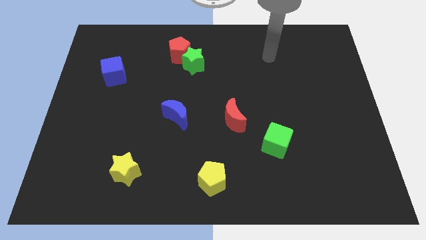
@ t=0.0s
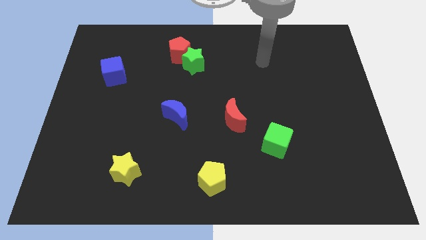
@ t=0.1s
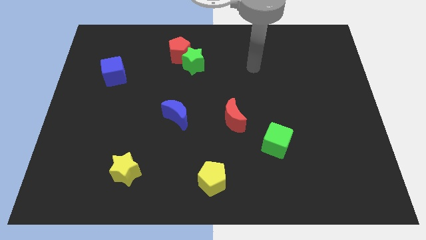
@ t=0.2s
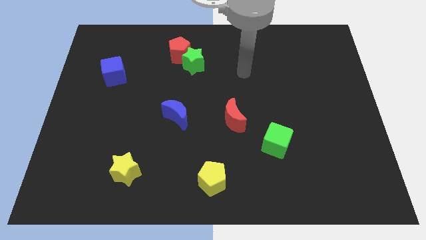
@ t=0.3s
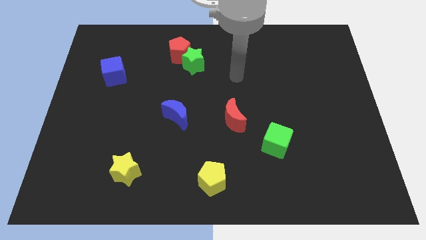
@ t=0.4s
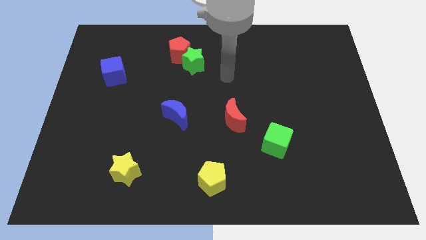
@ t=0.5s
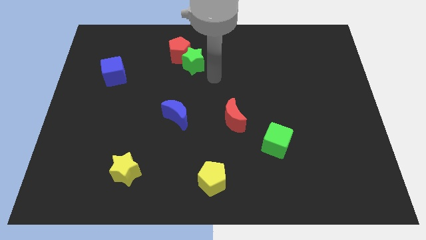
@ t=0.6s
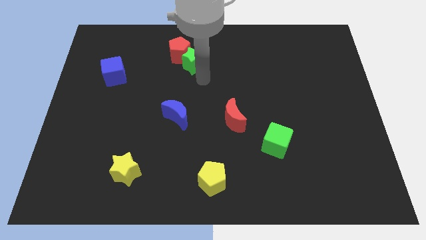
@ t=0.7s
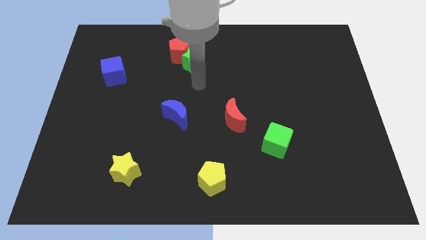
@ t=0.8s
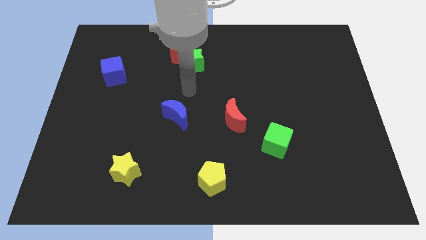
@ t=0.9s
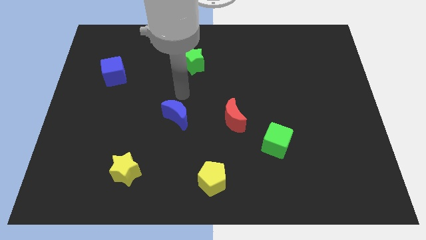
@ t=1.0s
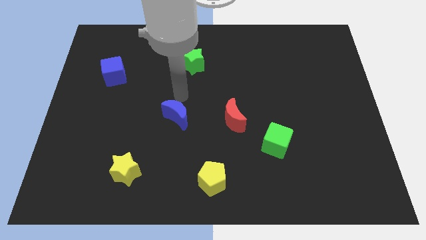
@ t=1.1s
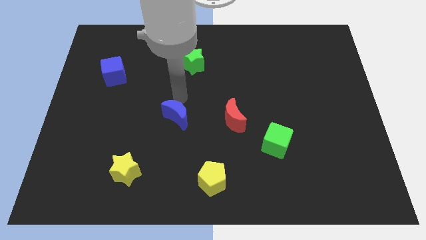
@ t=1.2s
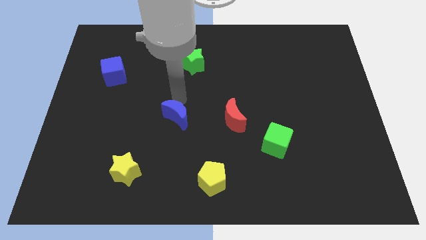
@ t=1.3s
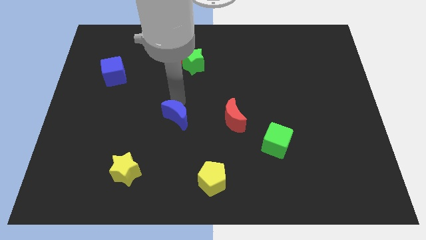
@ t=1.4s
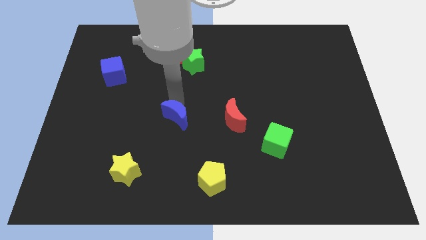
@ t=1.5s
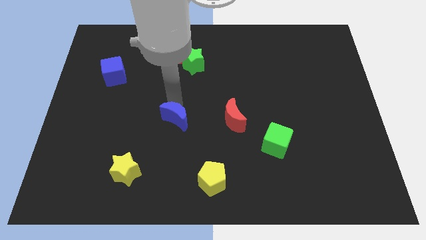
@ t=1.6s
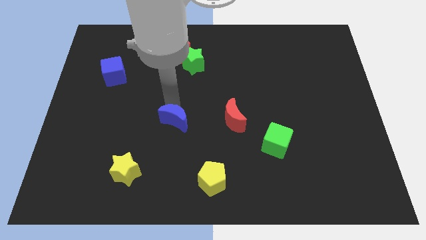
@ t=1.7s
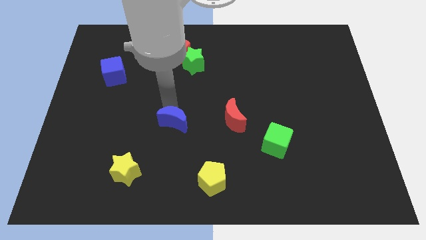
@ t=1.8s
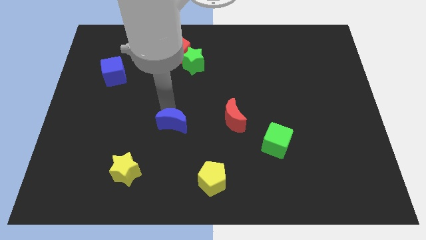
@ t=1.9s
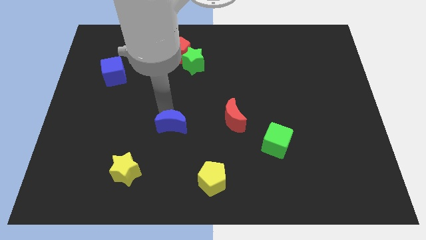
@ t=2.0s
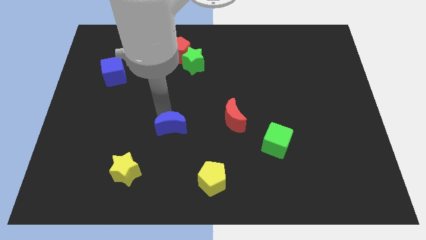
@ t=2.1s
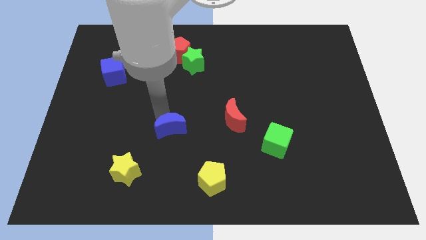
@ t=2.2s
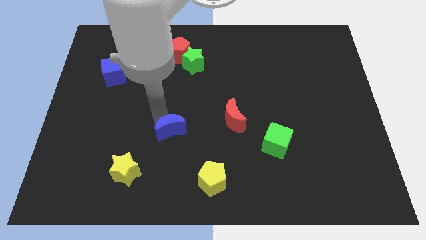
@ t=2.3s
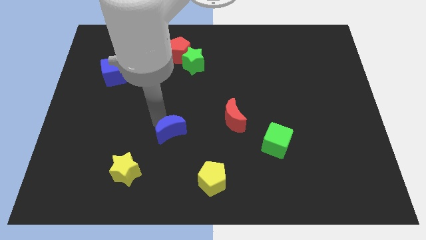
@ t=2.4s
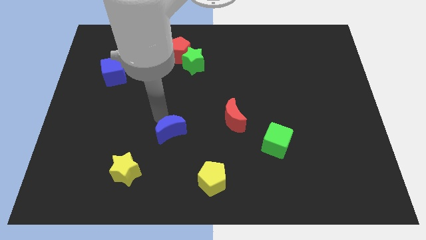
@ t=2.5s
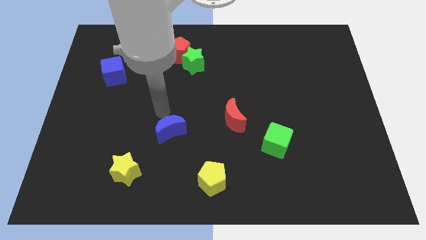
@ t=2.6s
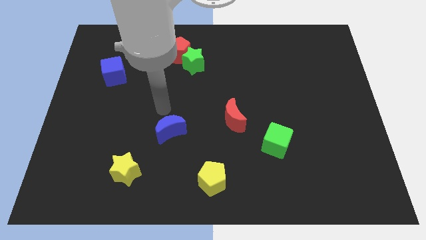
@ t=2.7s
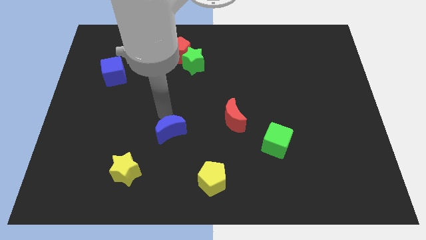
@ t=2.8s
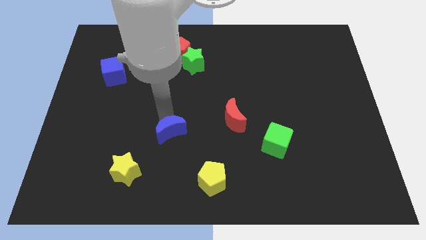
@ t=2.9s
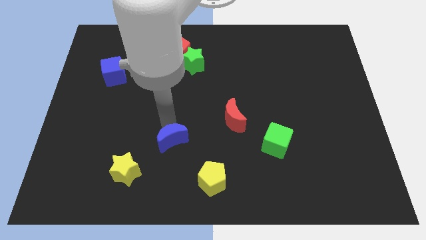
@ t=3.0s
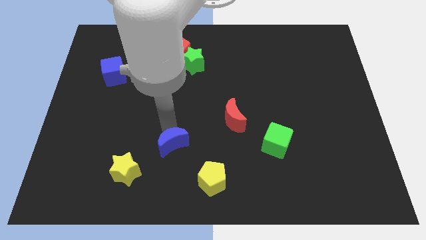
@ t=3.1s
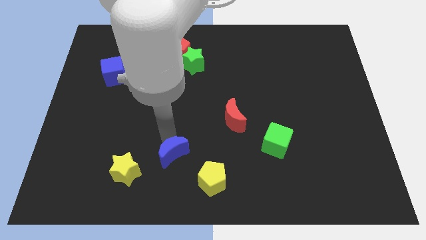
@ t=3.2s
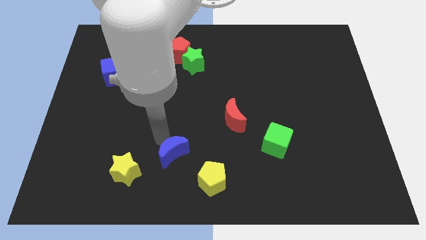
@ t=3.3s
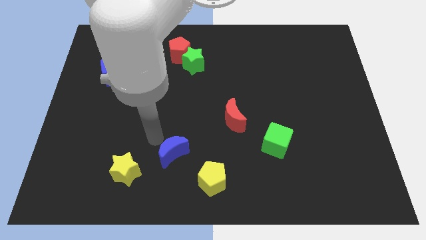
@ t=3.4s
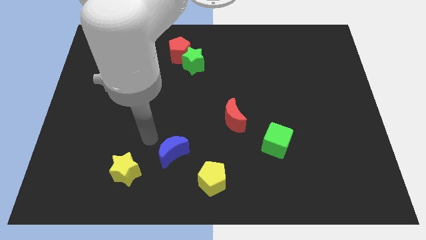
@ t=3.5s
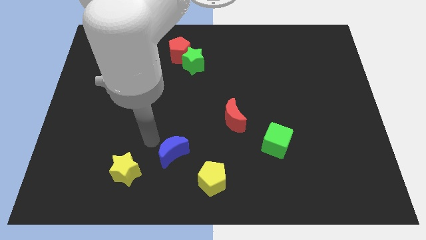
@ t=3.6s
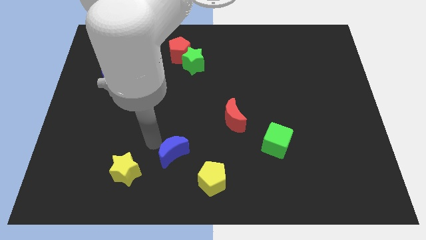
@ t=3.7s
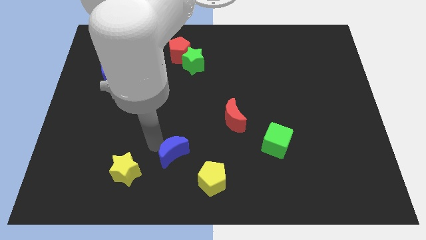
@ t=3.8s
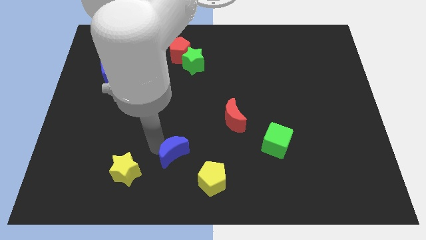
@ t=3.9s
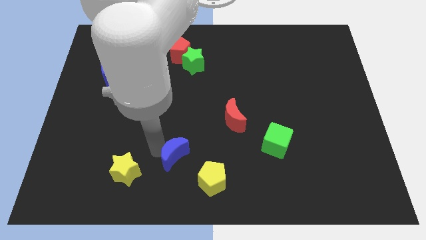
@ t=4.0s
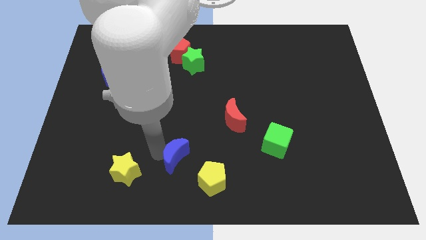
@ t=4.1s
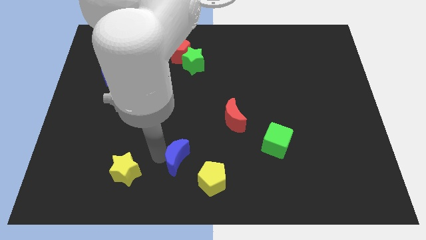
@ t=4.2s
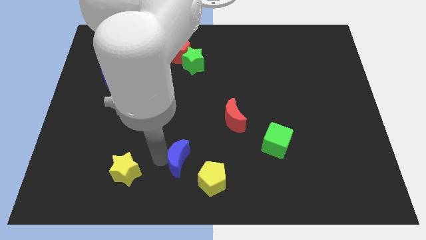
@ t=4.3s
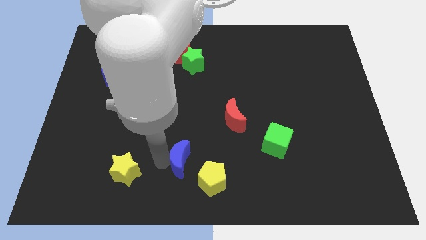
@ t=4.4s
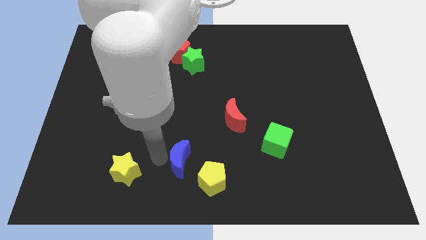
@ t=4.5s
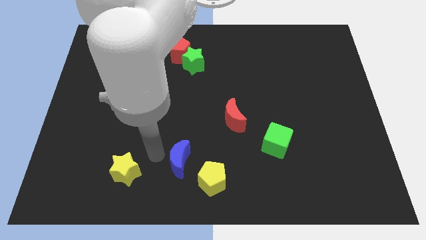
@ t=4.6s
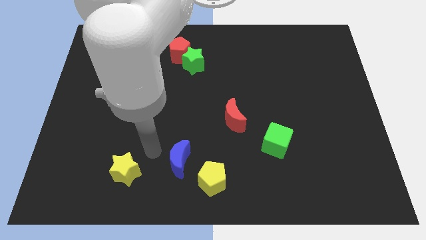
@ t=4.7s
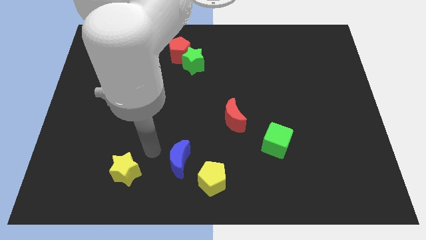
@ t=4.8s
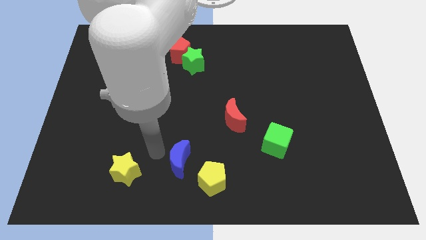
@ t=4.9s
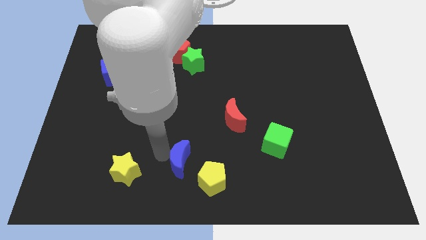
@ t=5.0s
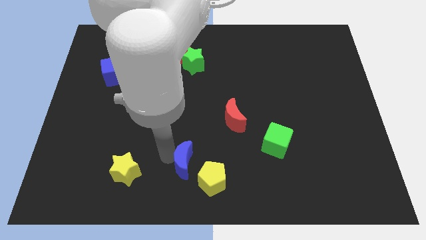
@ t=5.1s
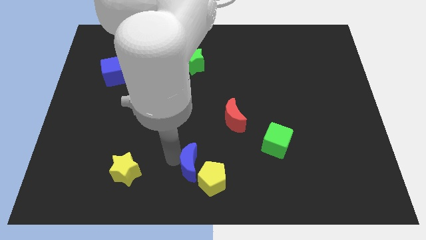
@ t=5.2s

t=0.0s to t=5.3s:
slide the blue moon to the yellow pentagon

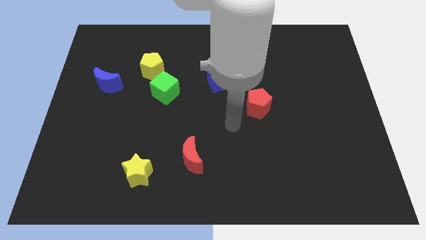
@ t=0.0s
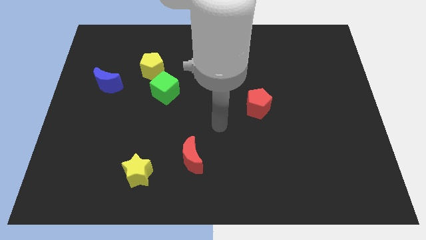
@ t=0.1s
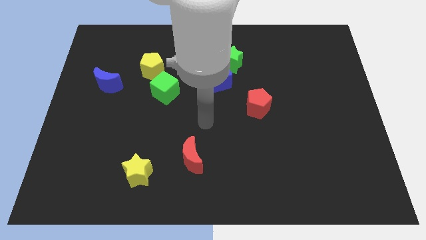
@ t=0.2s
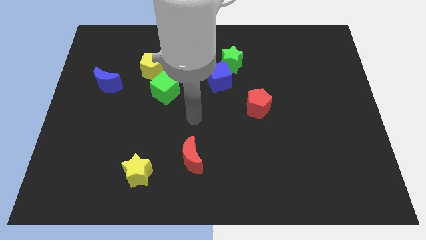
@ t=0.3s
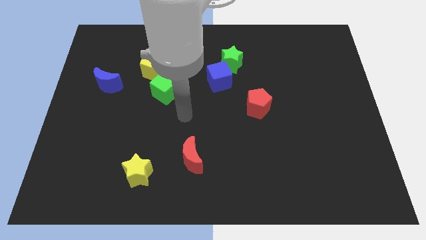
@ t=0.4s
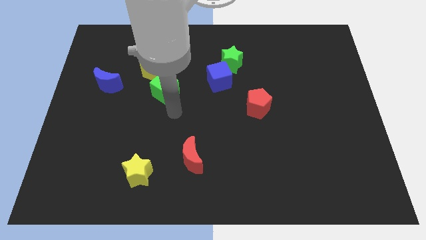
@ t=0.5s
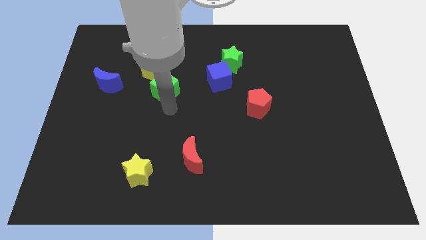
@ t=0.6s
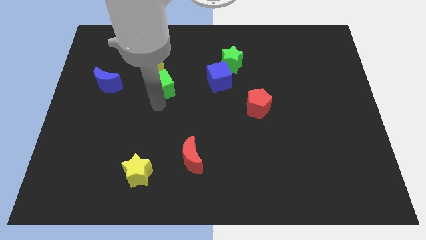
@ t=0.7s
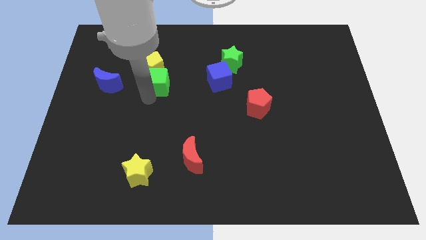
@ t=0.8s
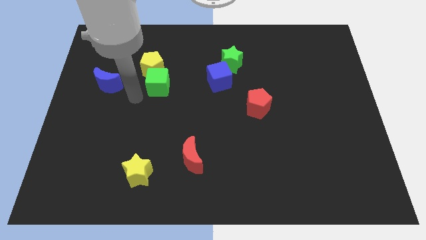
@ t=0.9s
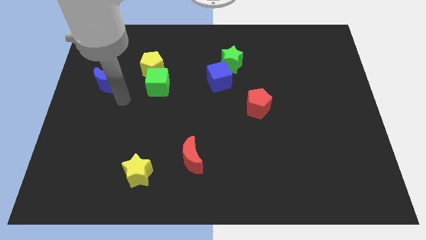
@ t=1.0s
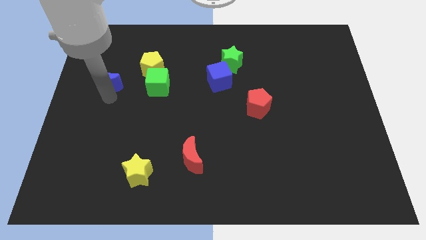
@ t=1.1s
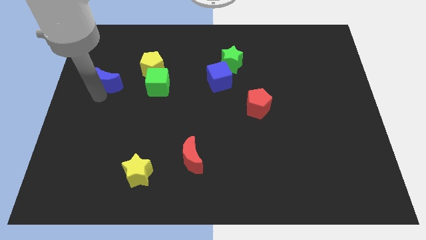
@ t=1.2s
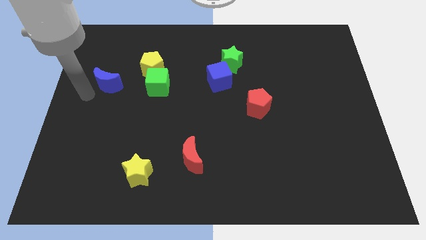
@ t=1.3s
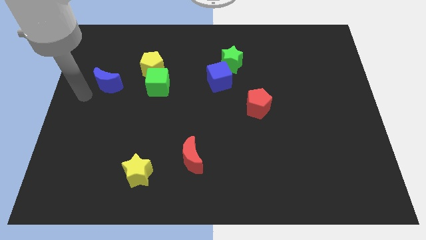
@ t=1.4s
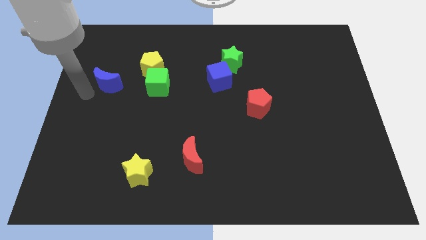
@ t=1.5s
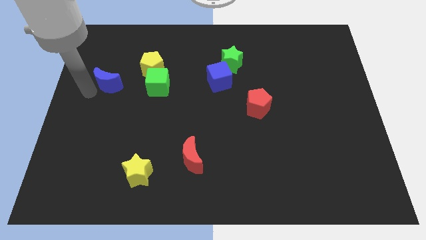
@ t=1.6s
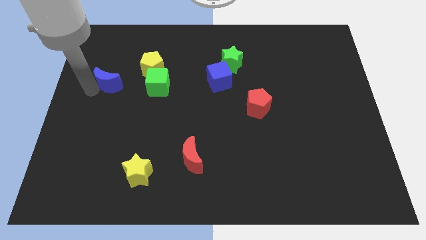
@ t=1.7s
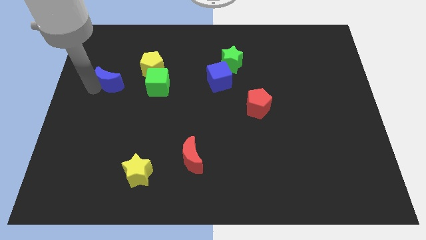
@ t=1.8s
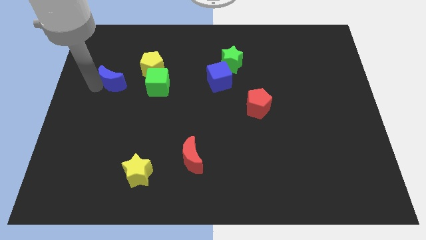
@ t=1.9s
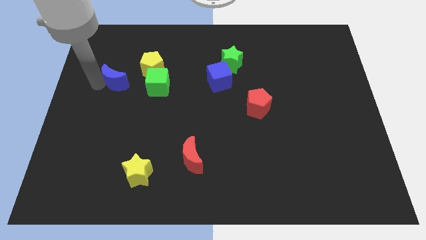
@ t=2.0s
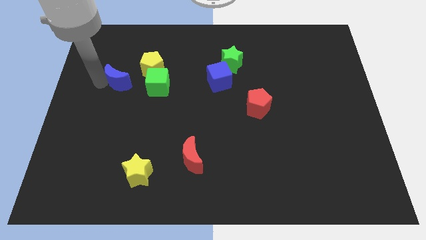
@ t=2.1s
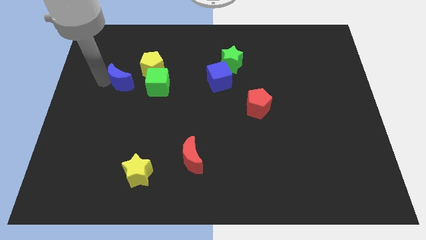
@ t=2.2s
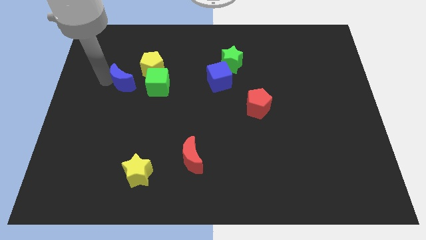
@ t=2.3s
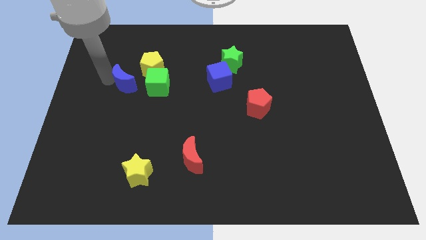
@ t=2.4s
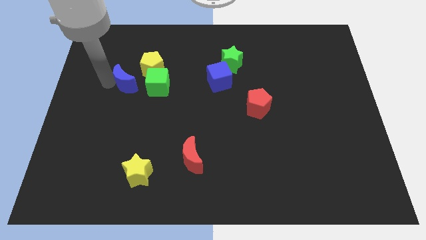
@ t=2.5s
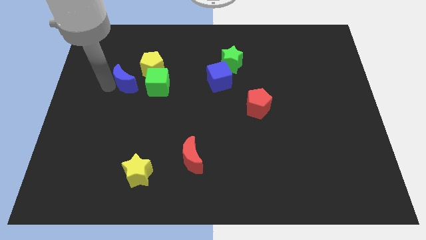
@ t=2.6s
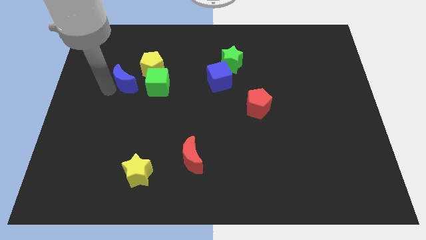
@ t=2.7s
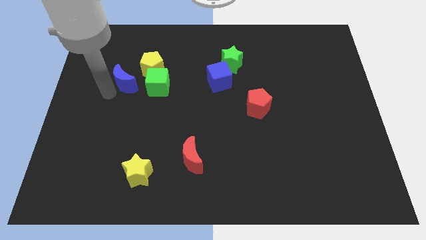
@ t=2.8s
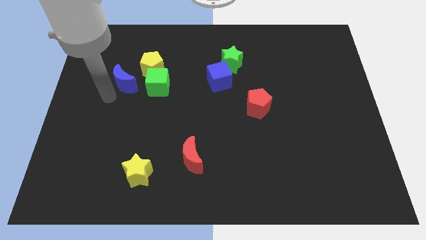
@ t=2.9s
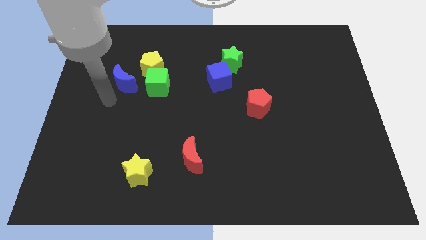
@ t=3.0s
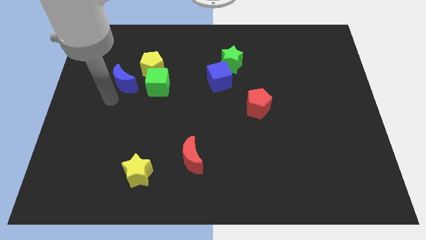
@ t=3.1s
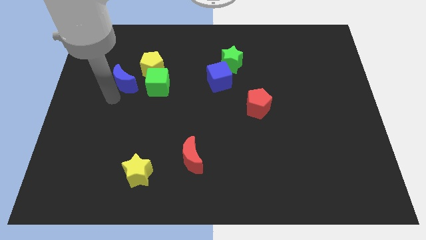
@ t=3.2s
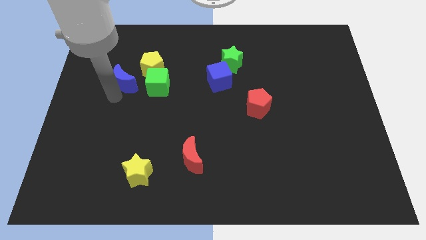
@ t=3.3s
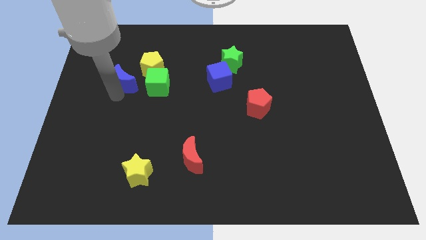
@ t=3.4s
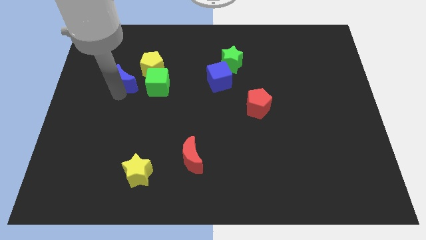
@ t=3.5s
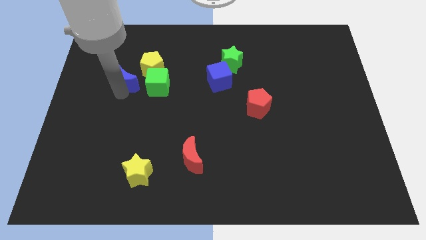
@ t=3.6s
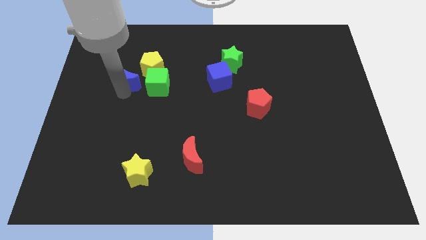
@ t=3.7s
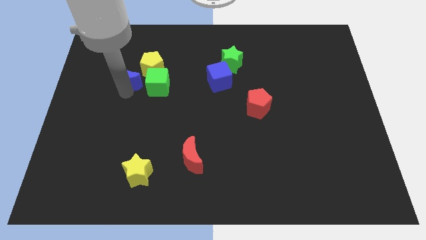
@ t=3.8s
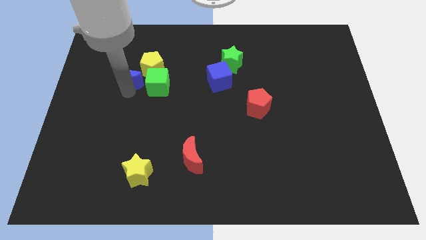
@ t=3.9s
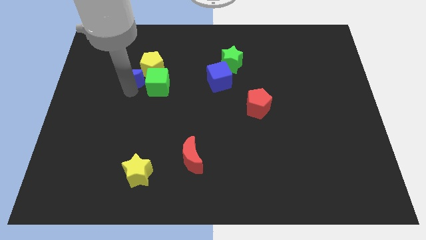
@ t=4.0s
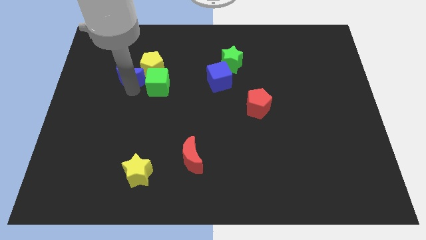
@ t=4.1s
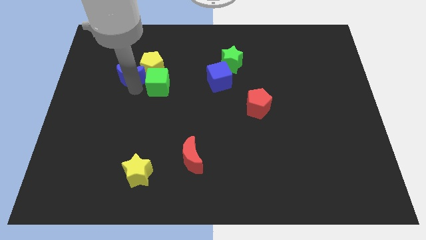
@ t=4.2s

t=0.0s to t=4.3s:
push the blue moon to the yellow pentagon
